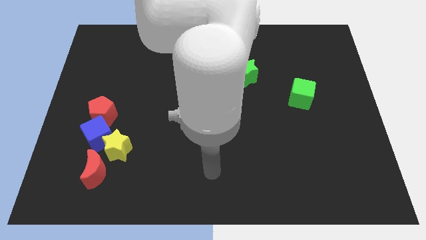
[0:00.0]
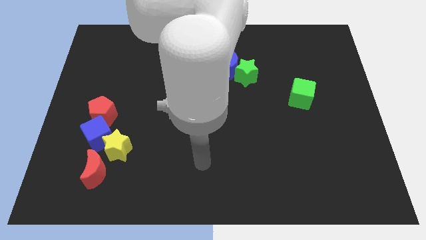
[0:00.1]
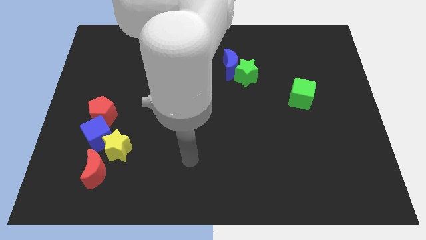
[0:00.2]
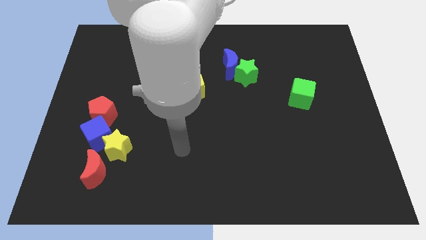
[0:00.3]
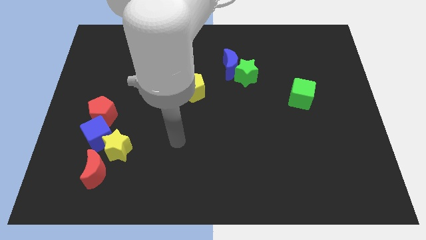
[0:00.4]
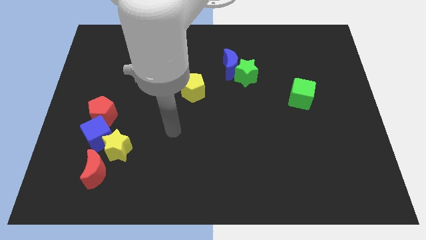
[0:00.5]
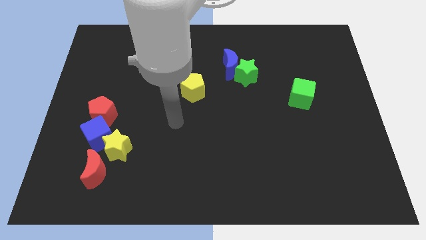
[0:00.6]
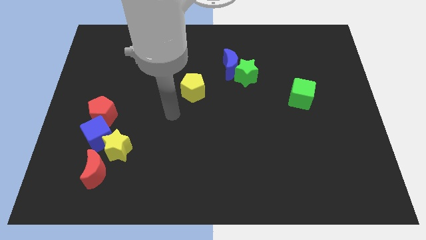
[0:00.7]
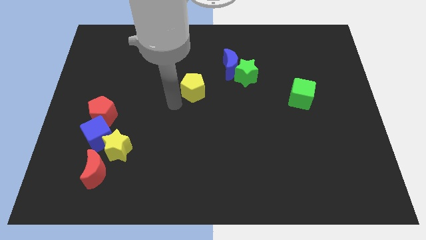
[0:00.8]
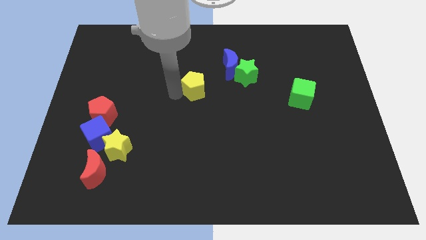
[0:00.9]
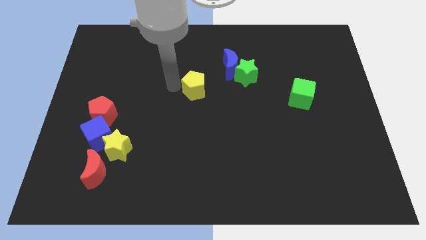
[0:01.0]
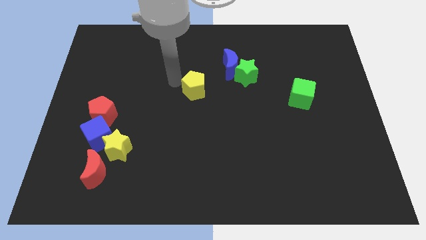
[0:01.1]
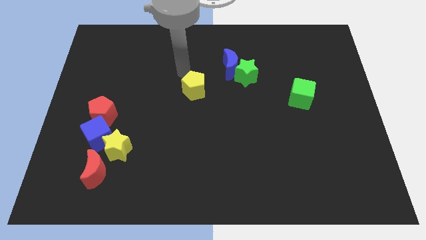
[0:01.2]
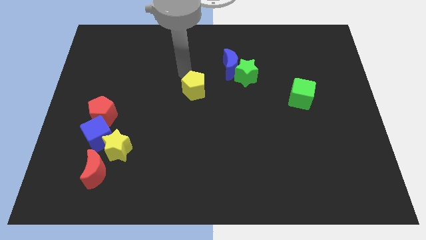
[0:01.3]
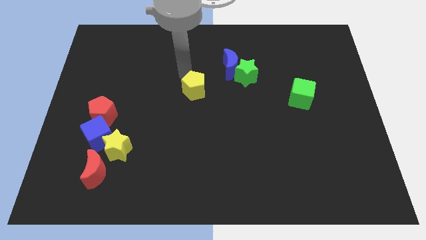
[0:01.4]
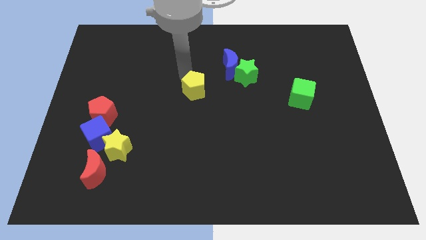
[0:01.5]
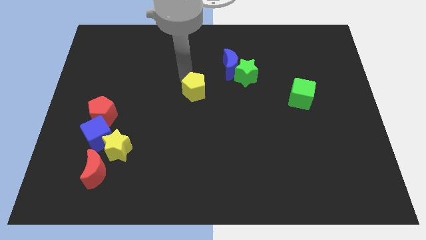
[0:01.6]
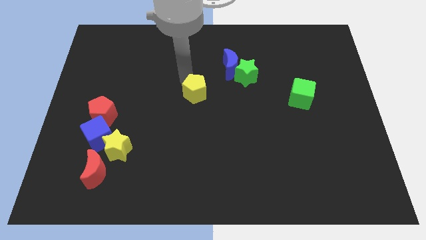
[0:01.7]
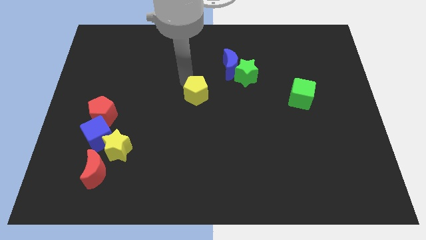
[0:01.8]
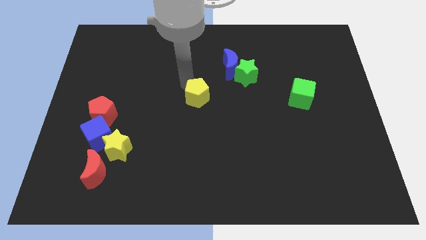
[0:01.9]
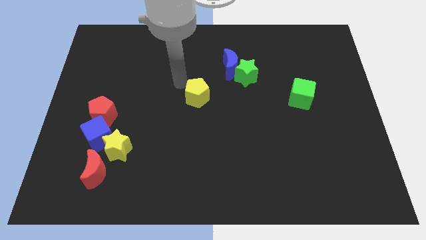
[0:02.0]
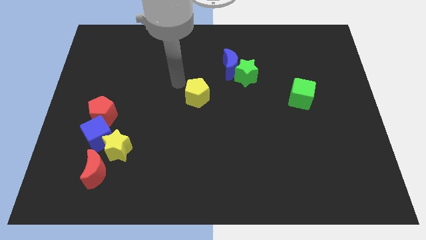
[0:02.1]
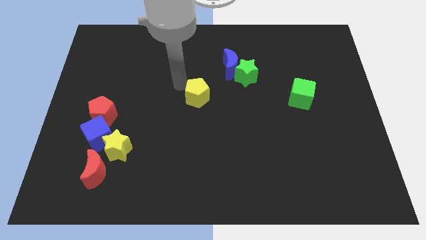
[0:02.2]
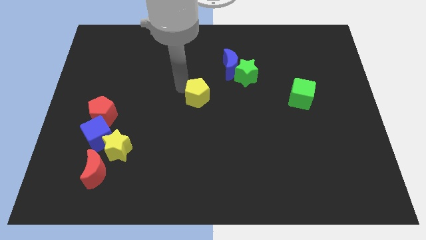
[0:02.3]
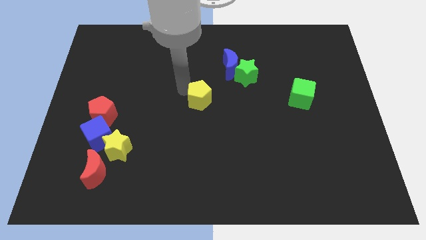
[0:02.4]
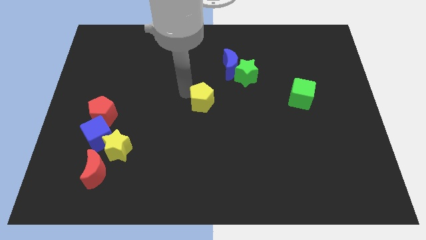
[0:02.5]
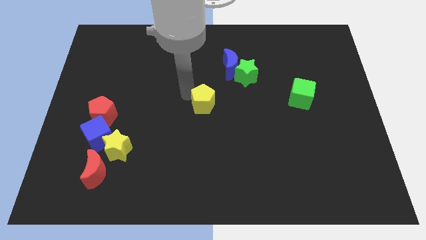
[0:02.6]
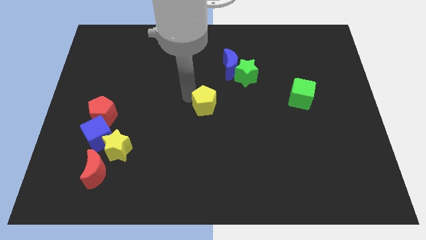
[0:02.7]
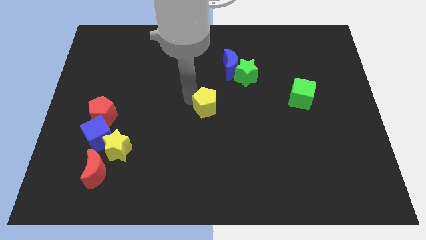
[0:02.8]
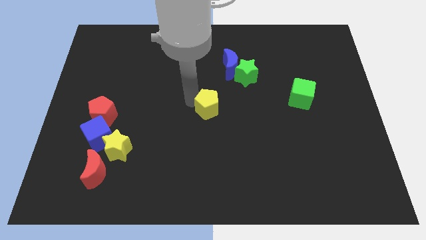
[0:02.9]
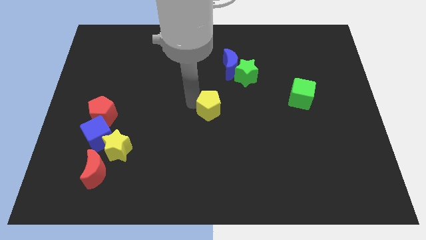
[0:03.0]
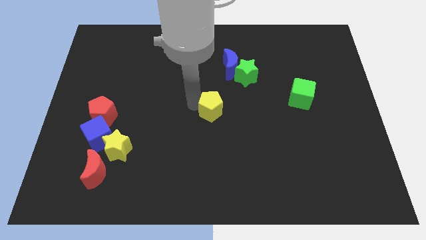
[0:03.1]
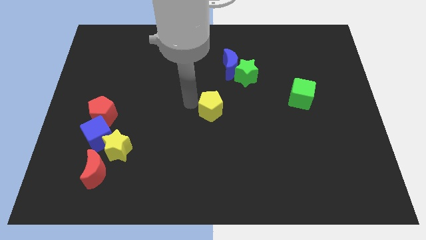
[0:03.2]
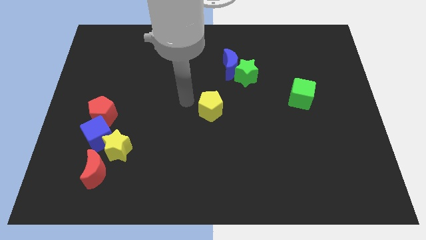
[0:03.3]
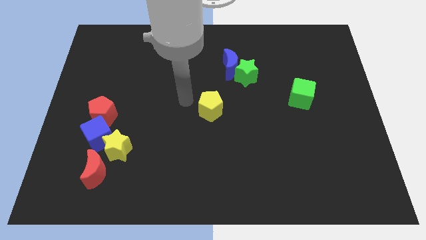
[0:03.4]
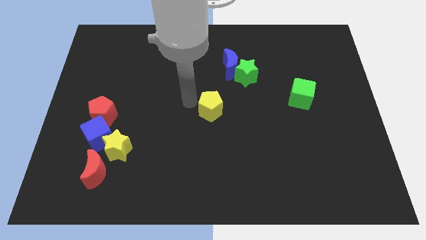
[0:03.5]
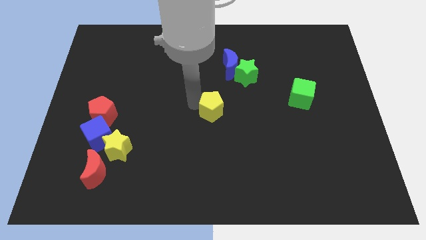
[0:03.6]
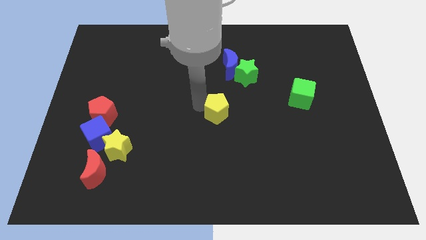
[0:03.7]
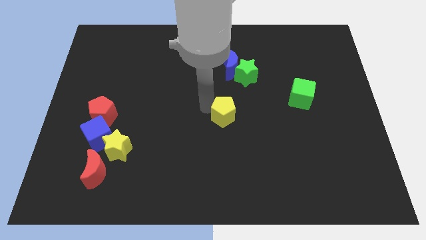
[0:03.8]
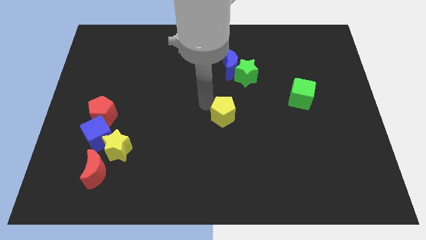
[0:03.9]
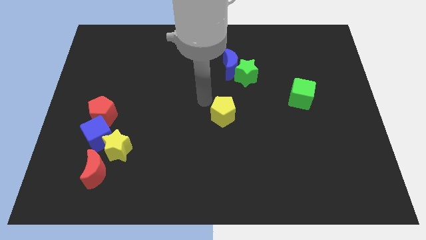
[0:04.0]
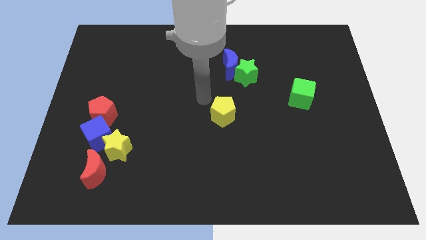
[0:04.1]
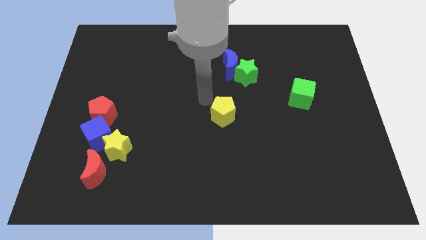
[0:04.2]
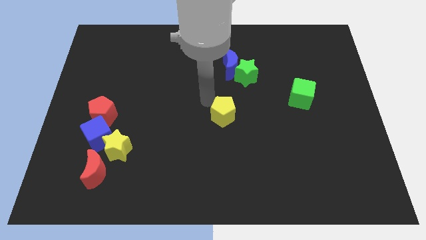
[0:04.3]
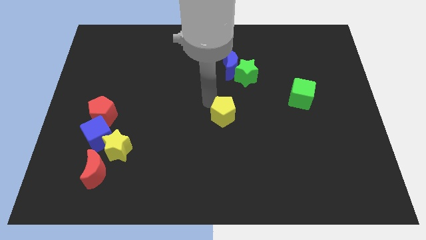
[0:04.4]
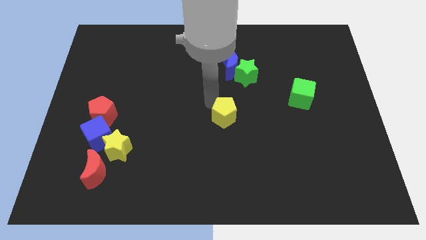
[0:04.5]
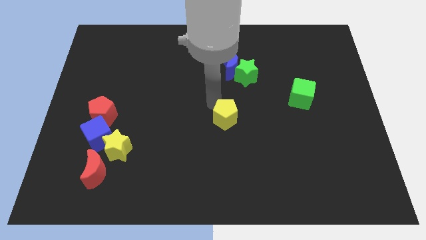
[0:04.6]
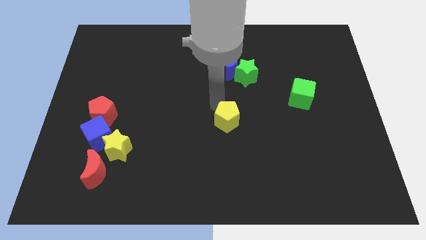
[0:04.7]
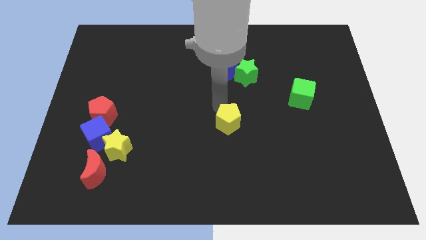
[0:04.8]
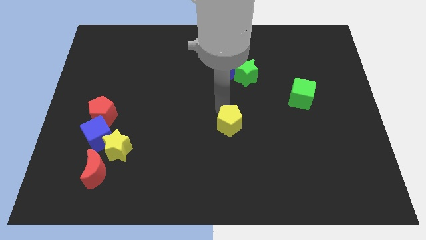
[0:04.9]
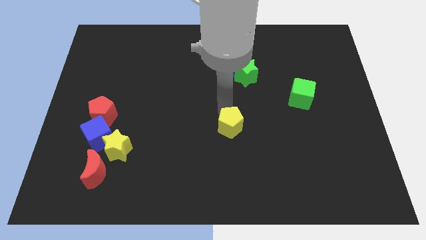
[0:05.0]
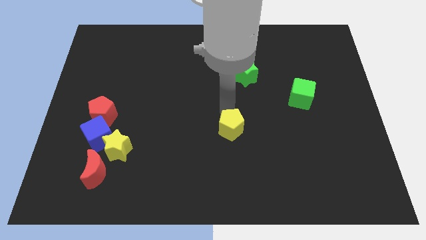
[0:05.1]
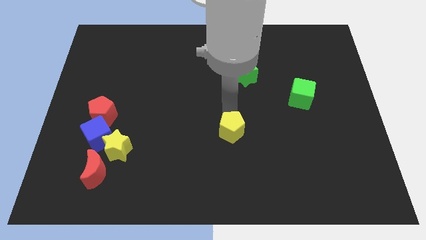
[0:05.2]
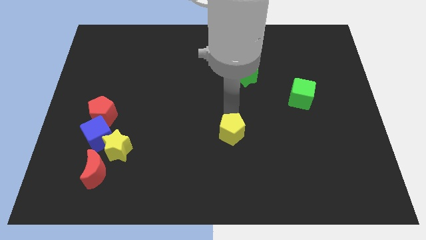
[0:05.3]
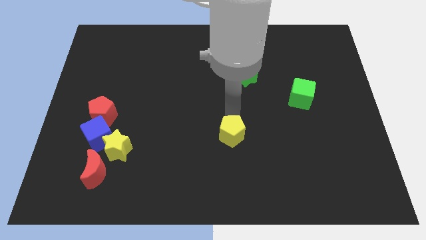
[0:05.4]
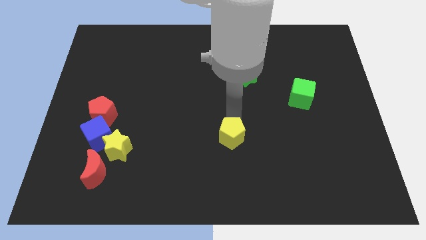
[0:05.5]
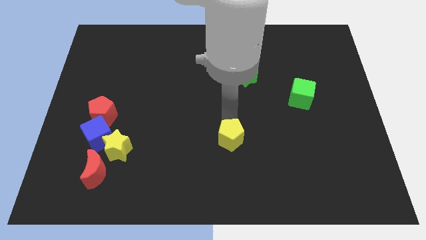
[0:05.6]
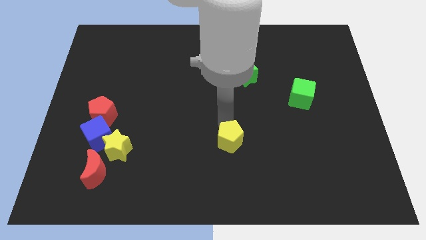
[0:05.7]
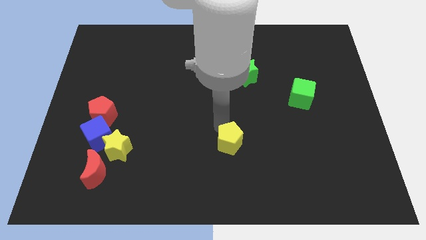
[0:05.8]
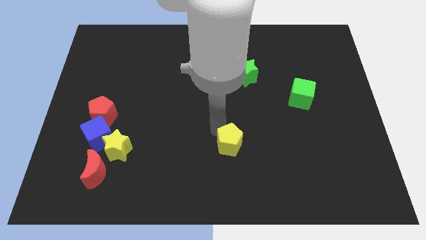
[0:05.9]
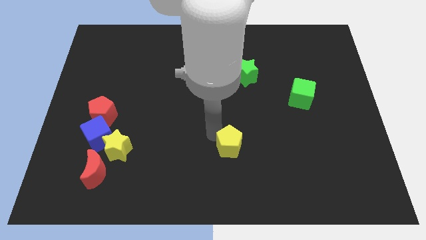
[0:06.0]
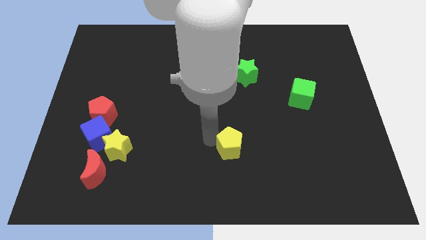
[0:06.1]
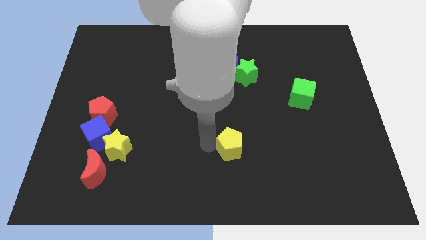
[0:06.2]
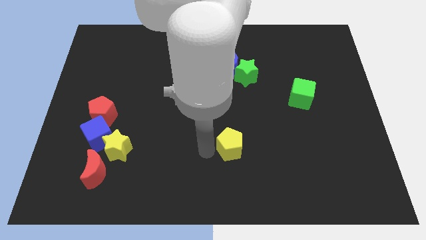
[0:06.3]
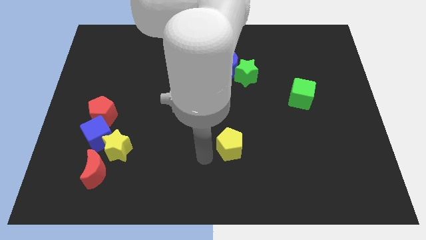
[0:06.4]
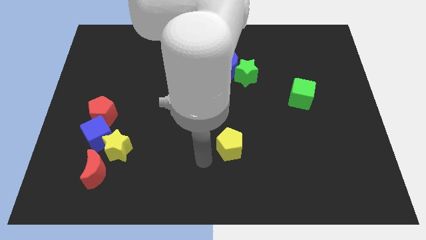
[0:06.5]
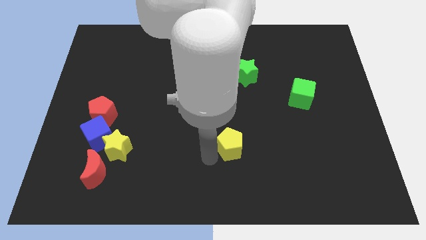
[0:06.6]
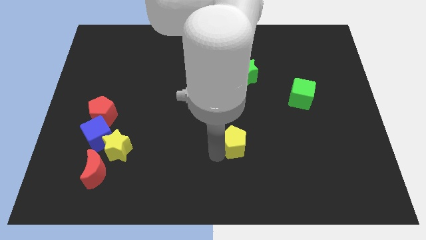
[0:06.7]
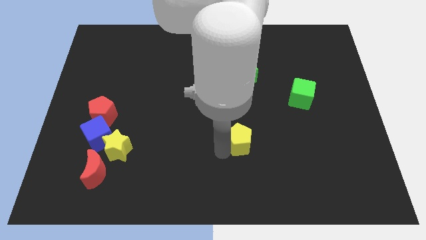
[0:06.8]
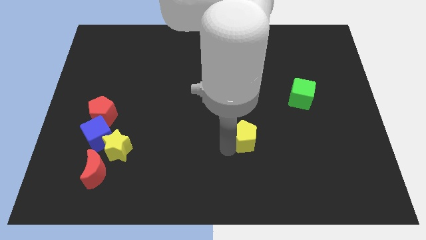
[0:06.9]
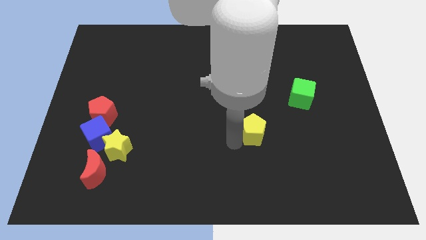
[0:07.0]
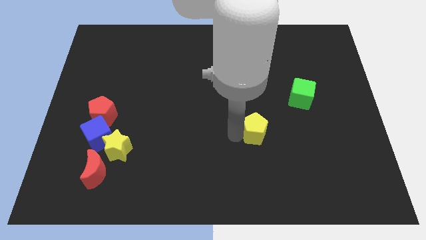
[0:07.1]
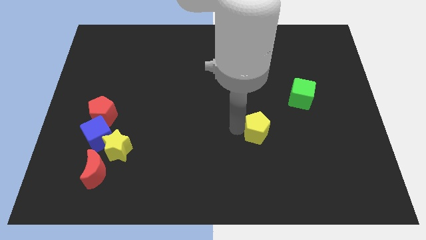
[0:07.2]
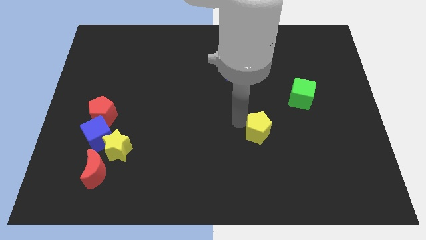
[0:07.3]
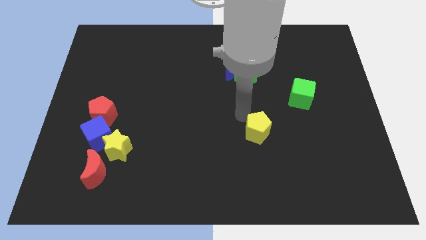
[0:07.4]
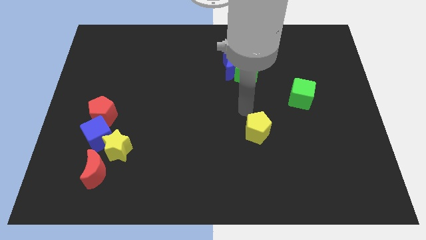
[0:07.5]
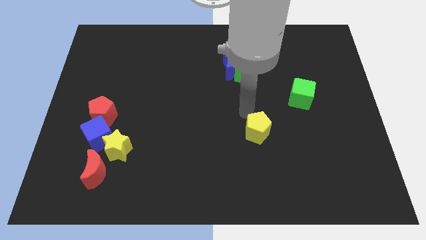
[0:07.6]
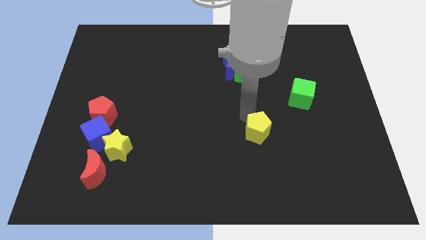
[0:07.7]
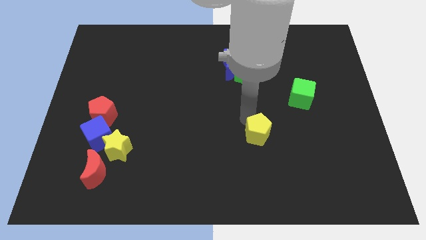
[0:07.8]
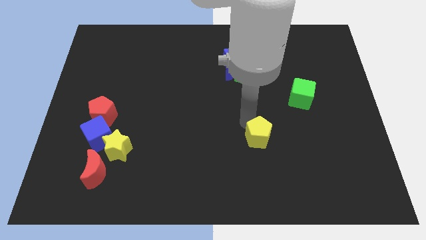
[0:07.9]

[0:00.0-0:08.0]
slide the yellow pentagon downwards and to the right
